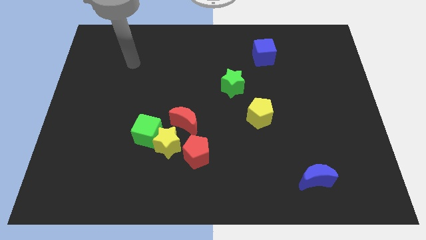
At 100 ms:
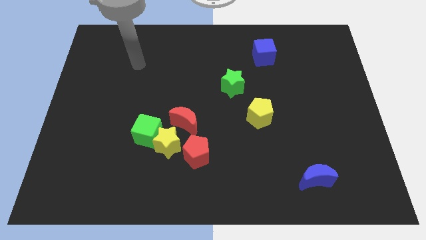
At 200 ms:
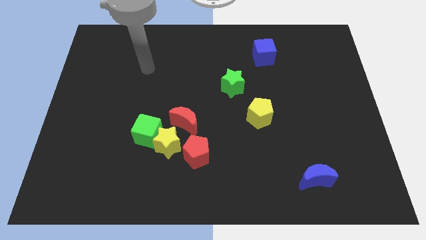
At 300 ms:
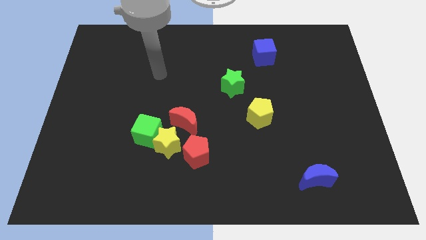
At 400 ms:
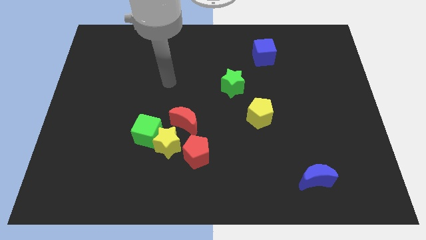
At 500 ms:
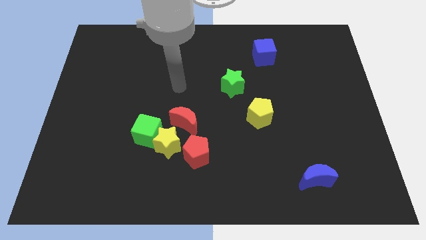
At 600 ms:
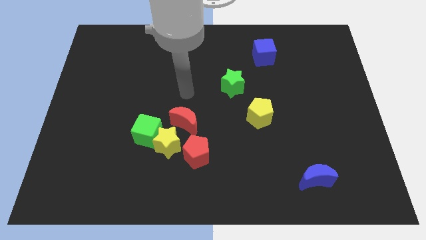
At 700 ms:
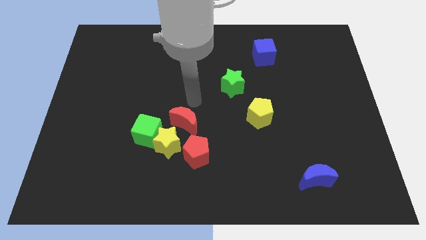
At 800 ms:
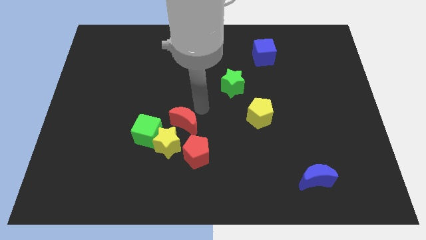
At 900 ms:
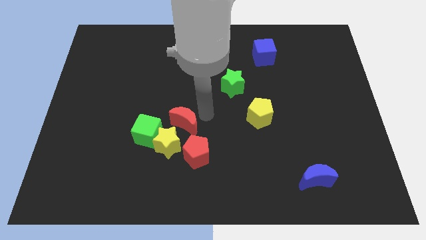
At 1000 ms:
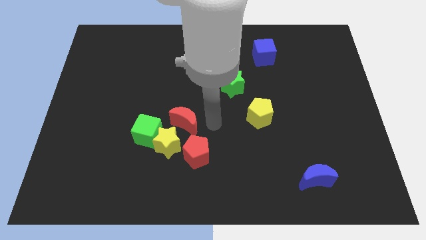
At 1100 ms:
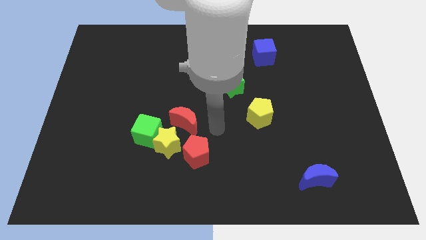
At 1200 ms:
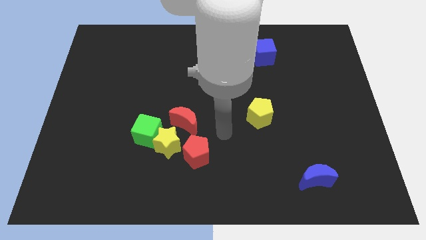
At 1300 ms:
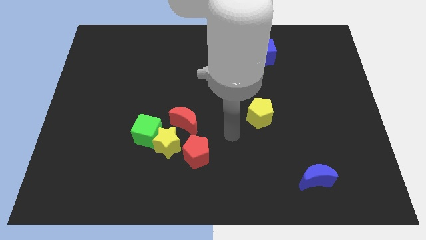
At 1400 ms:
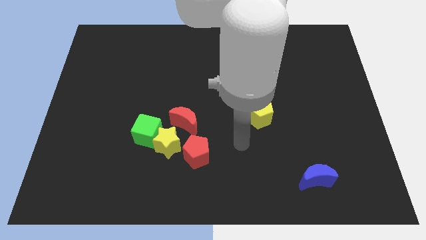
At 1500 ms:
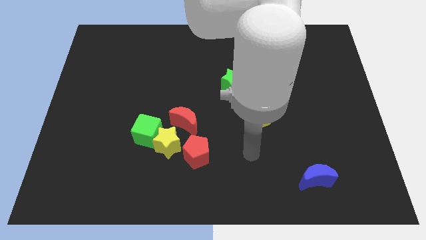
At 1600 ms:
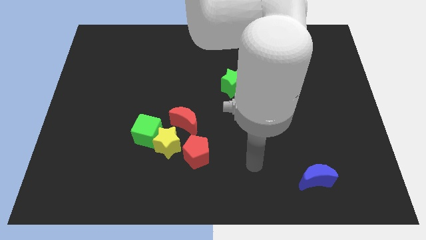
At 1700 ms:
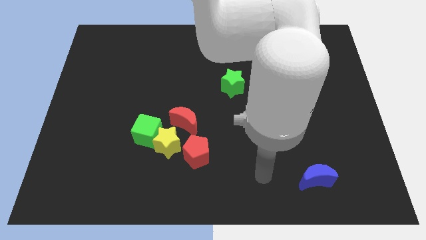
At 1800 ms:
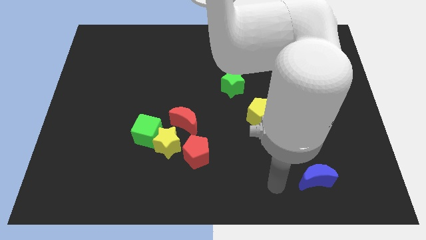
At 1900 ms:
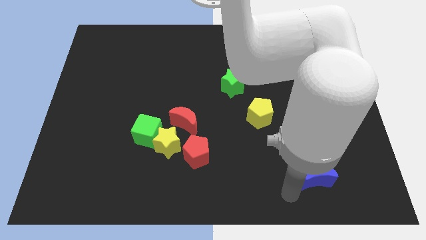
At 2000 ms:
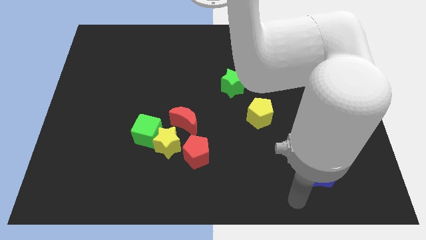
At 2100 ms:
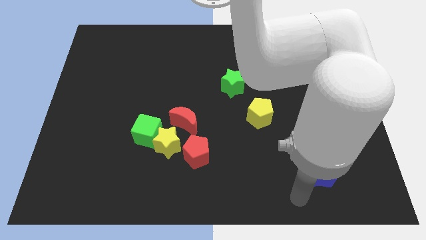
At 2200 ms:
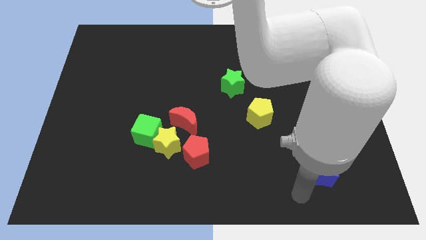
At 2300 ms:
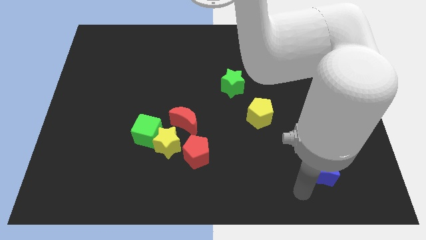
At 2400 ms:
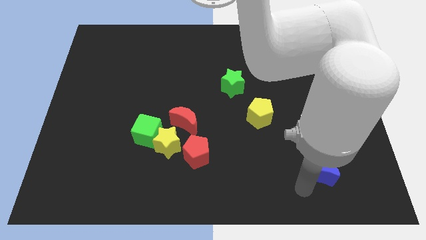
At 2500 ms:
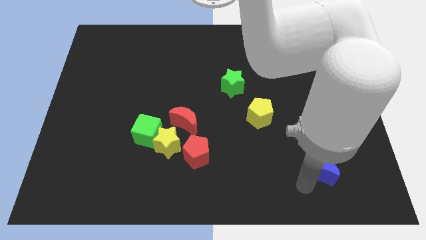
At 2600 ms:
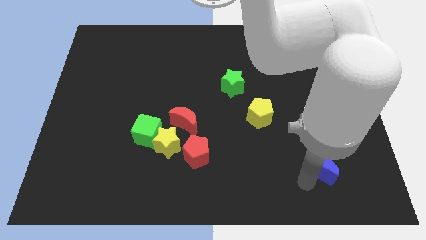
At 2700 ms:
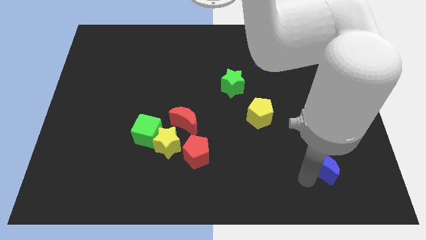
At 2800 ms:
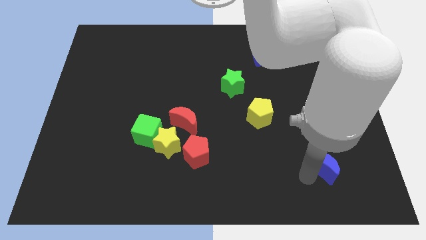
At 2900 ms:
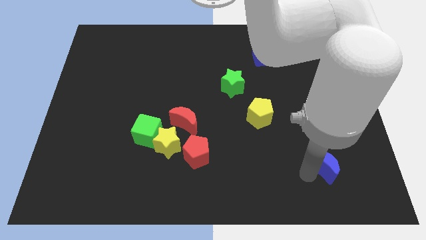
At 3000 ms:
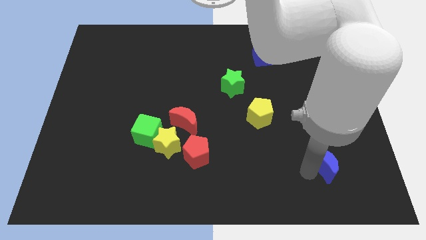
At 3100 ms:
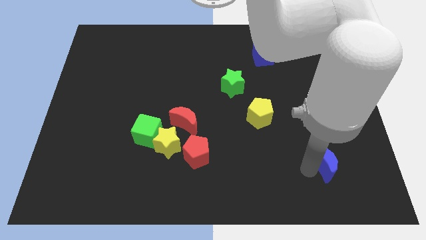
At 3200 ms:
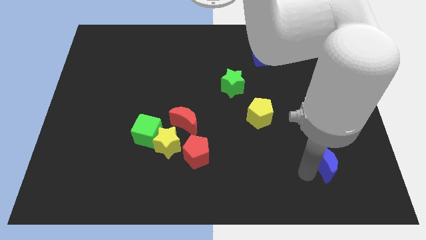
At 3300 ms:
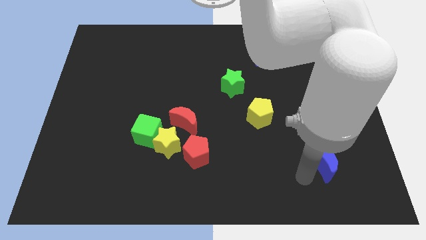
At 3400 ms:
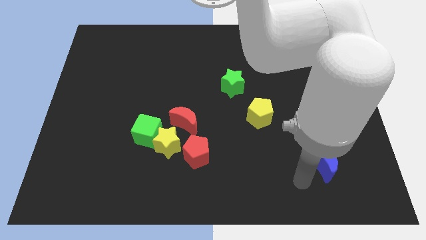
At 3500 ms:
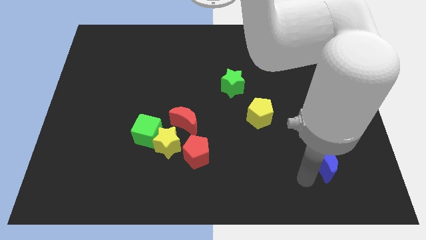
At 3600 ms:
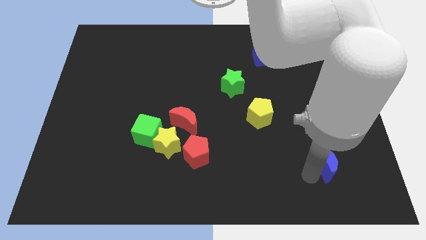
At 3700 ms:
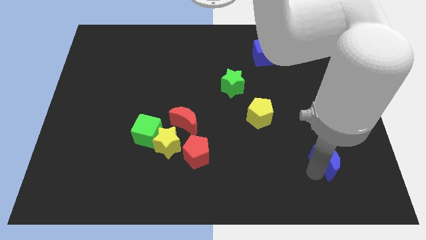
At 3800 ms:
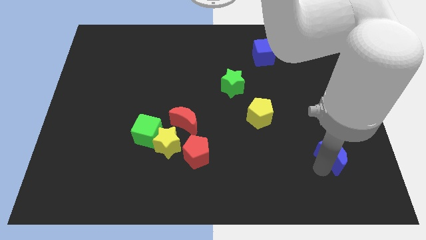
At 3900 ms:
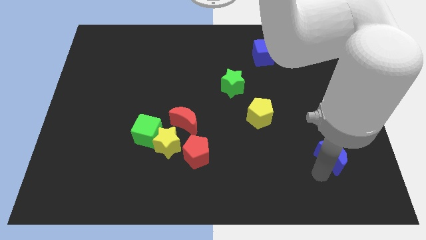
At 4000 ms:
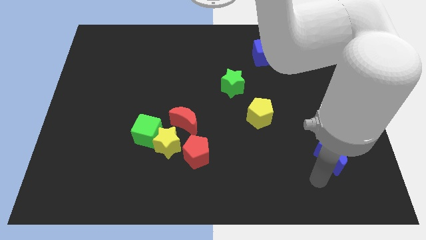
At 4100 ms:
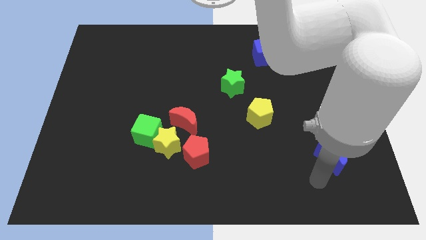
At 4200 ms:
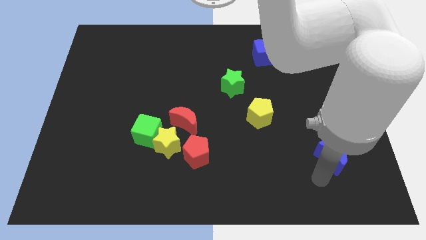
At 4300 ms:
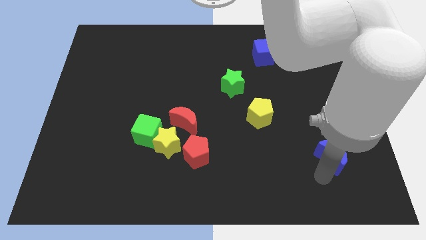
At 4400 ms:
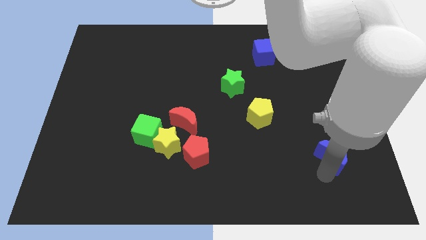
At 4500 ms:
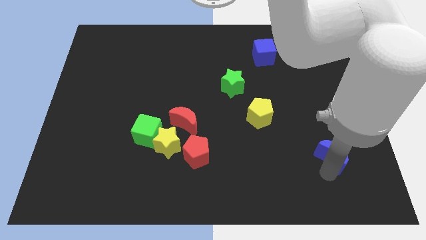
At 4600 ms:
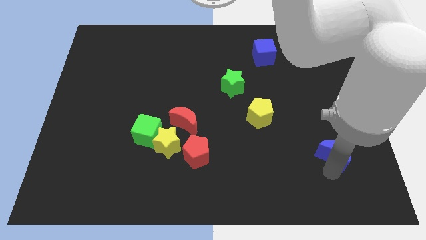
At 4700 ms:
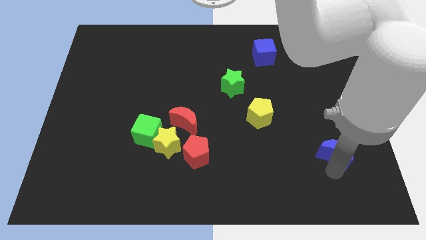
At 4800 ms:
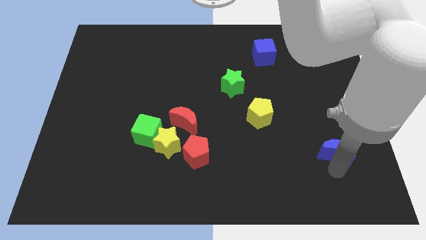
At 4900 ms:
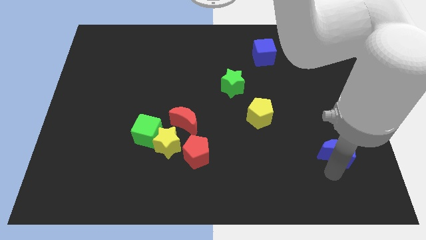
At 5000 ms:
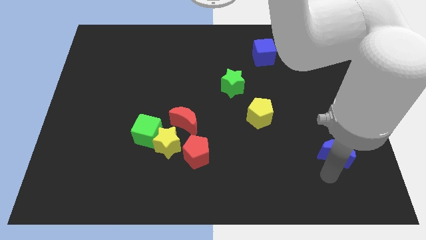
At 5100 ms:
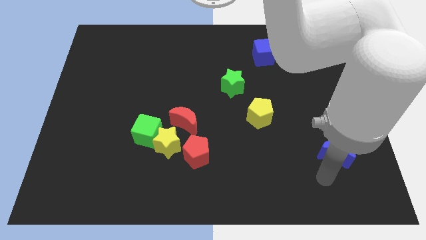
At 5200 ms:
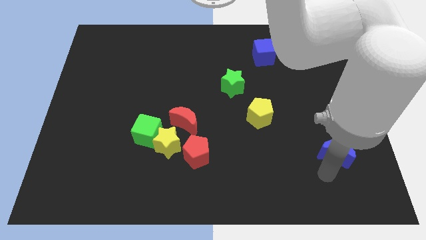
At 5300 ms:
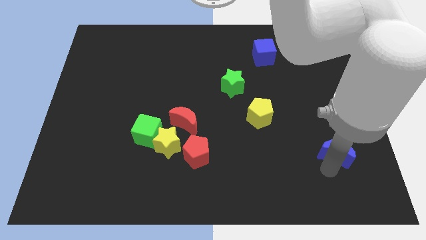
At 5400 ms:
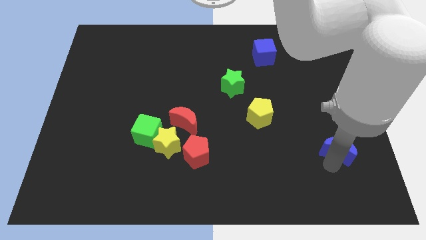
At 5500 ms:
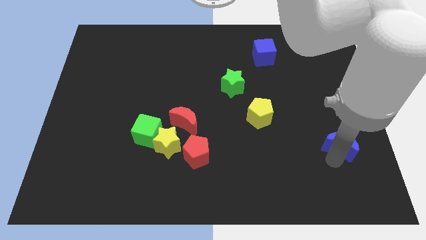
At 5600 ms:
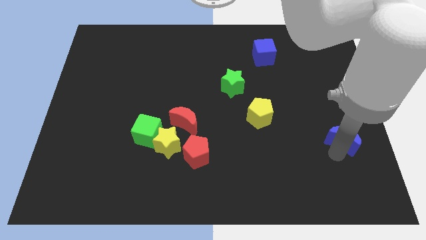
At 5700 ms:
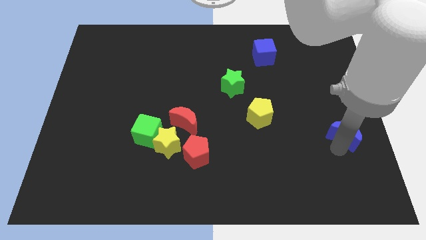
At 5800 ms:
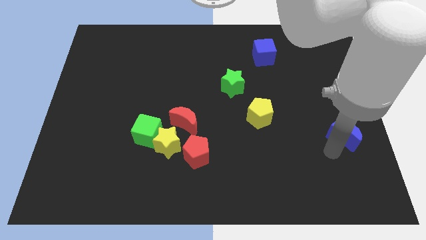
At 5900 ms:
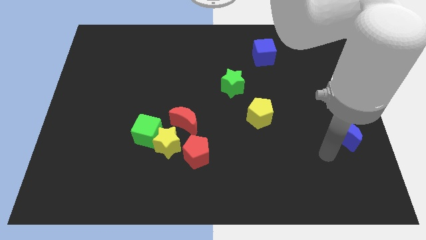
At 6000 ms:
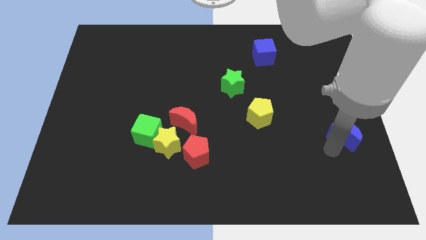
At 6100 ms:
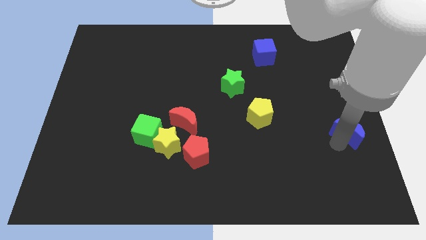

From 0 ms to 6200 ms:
push the blue moon to the center right
